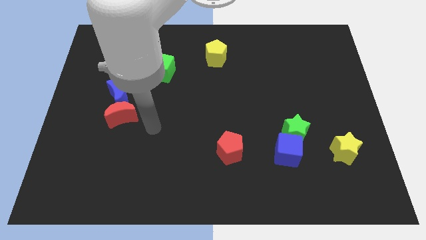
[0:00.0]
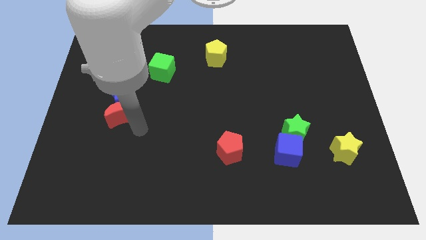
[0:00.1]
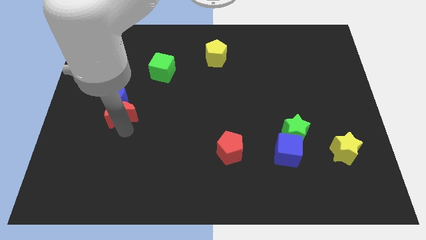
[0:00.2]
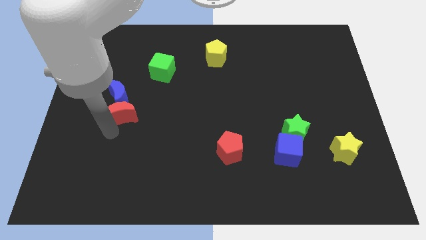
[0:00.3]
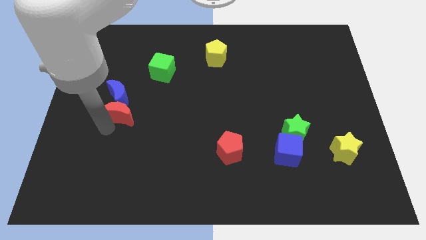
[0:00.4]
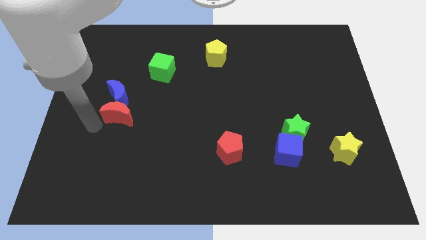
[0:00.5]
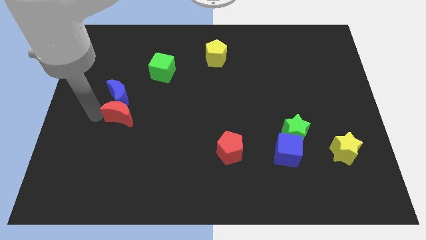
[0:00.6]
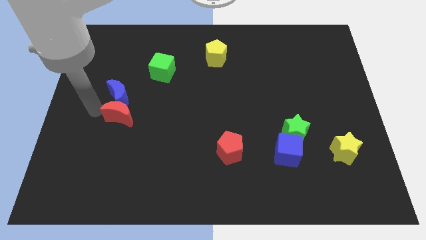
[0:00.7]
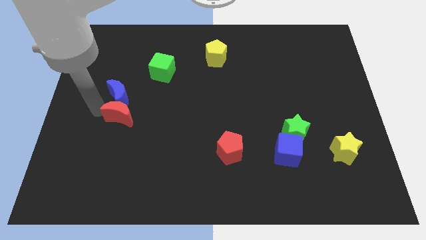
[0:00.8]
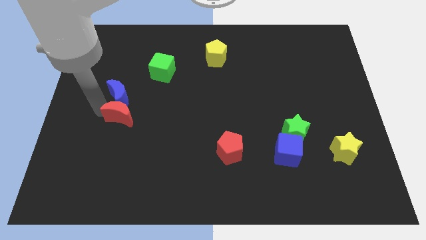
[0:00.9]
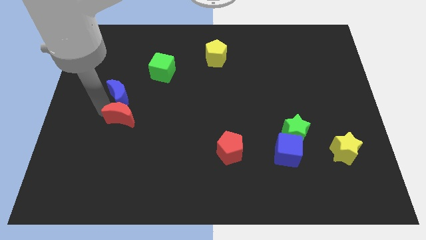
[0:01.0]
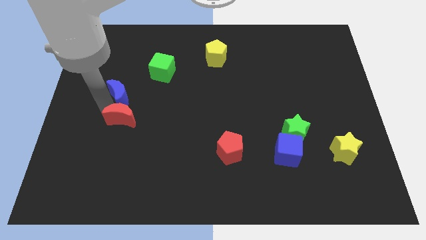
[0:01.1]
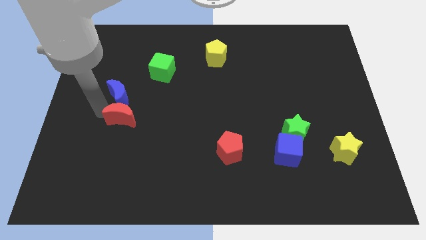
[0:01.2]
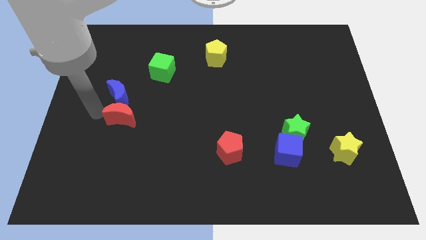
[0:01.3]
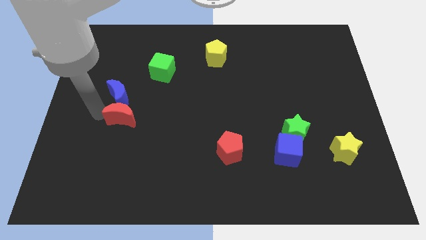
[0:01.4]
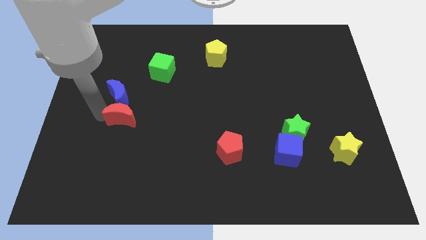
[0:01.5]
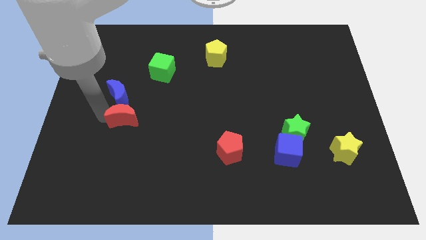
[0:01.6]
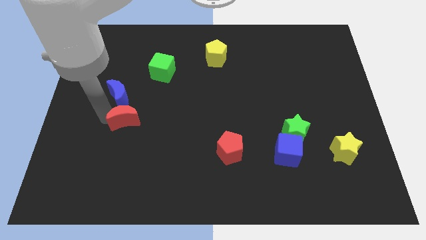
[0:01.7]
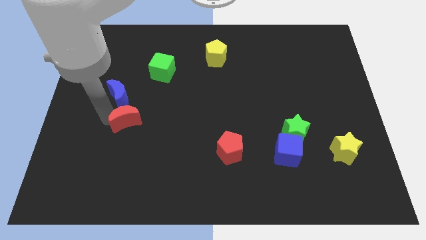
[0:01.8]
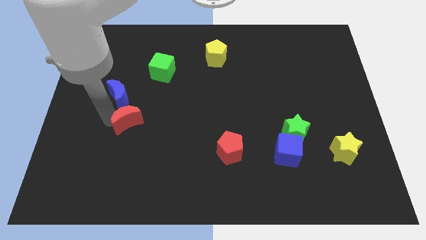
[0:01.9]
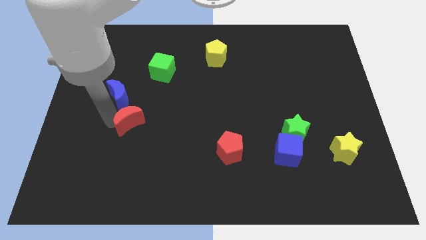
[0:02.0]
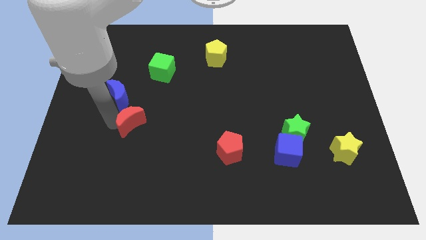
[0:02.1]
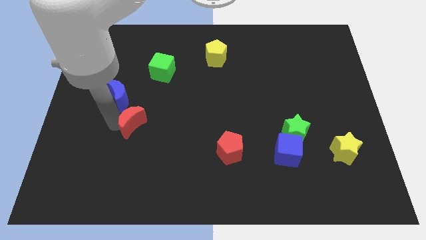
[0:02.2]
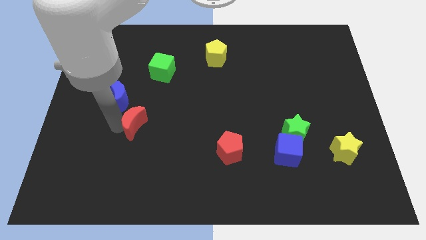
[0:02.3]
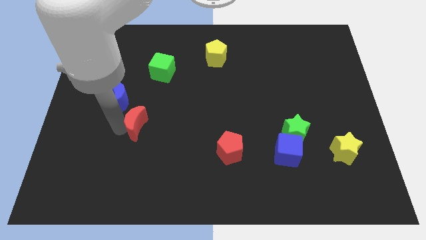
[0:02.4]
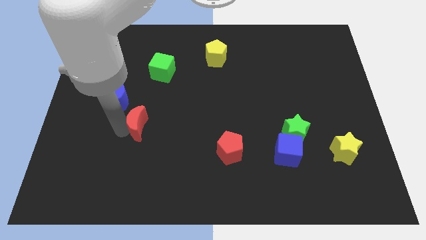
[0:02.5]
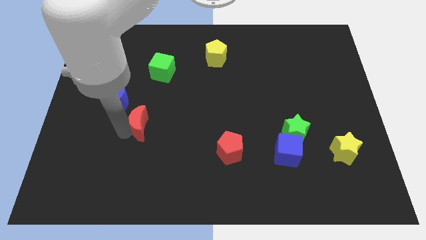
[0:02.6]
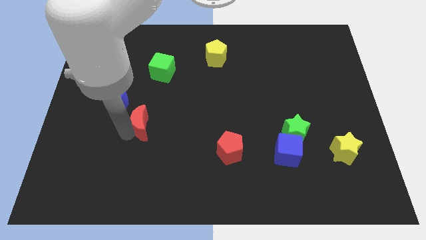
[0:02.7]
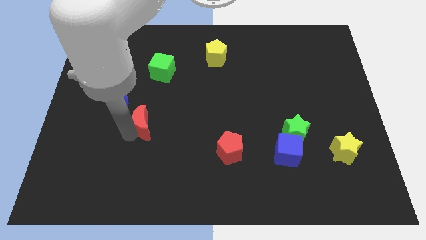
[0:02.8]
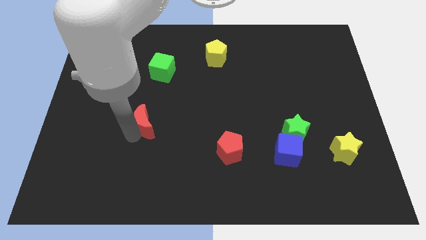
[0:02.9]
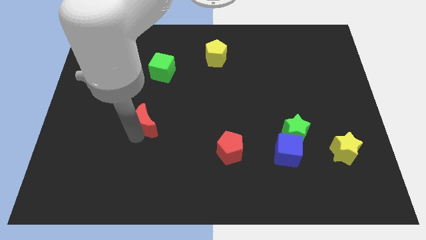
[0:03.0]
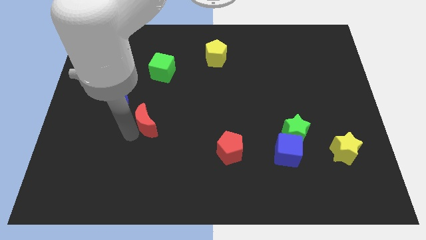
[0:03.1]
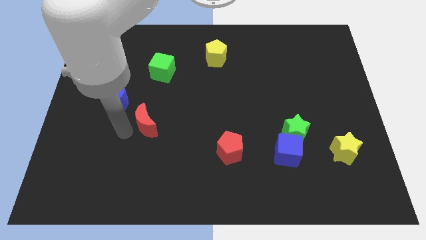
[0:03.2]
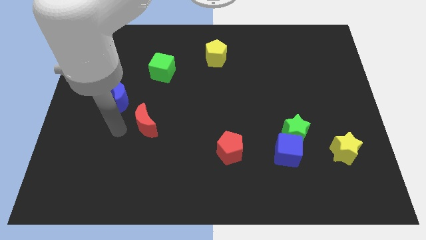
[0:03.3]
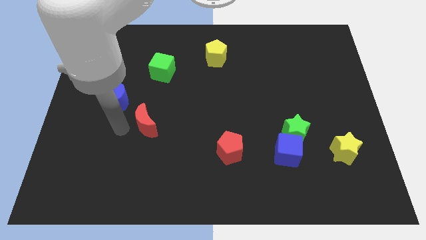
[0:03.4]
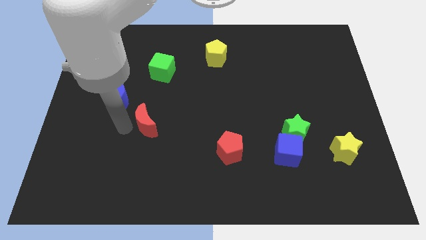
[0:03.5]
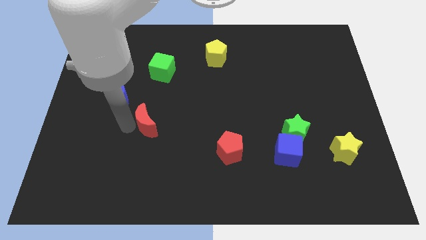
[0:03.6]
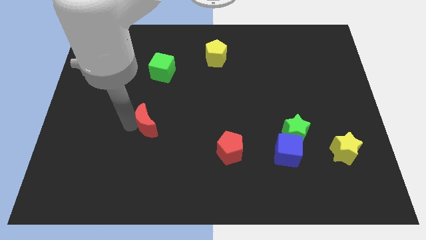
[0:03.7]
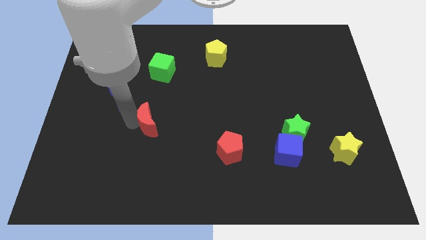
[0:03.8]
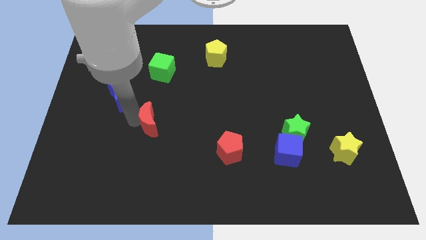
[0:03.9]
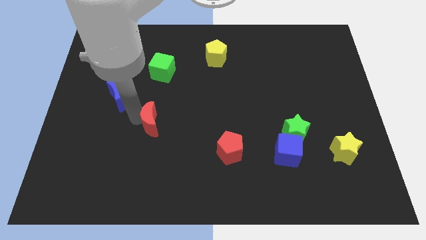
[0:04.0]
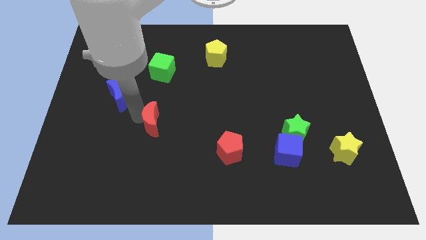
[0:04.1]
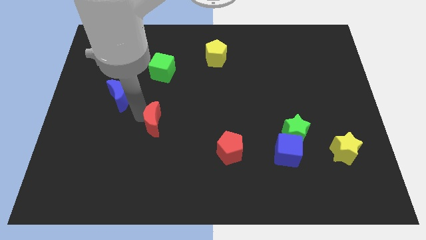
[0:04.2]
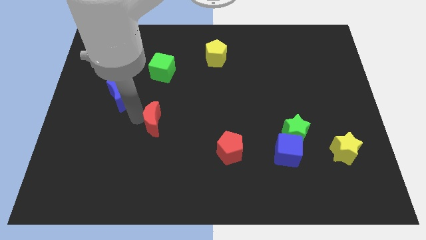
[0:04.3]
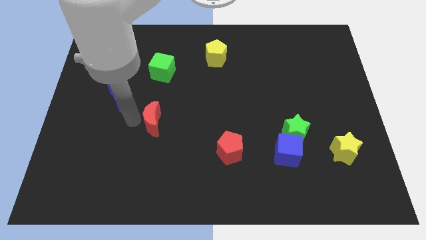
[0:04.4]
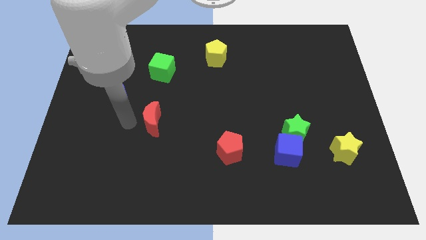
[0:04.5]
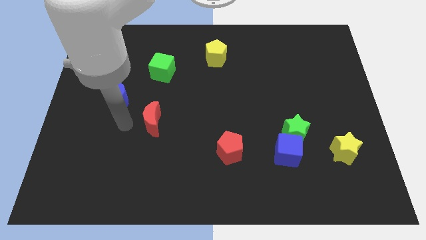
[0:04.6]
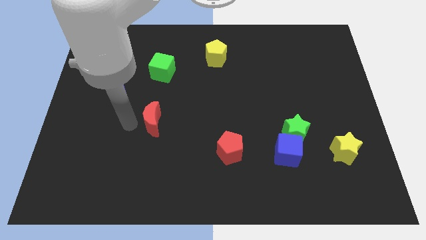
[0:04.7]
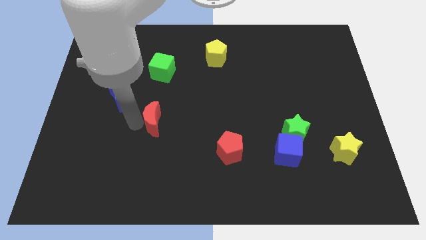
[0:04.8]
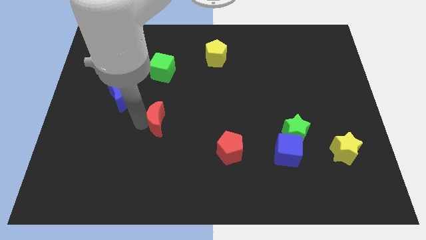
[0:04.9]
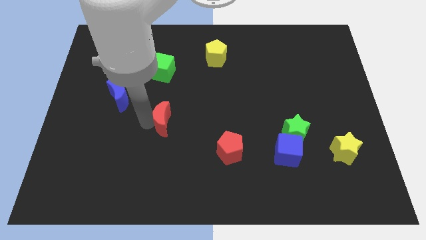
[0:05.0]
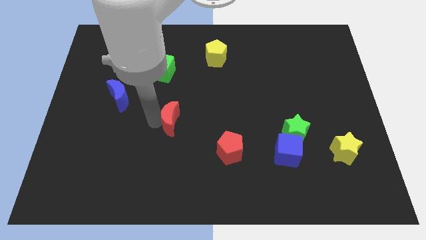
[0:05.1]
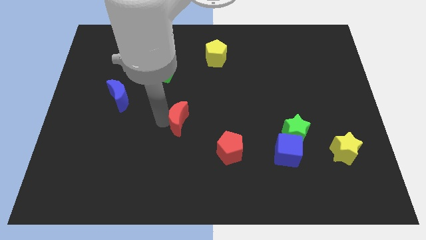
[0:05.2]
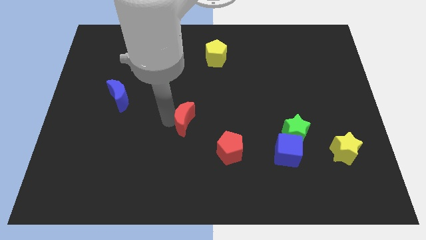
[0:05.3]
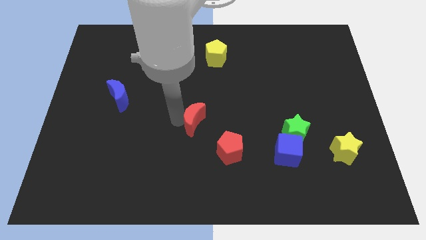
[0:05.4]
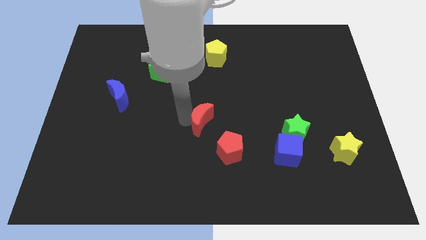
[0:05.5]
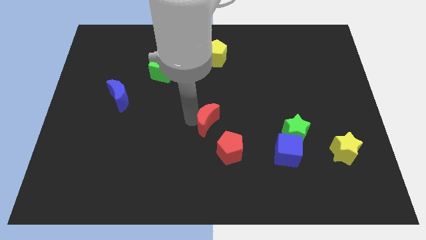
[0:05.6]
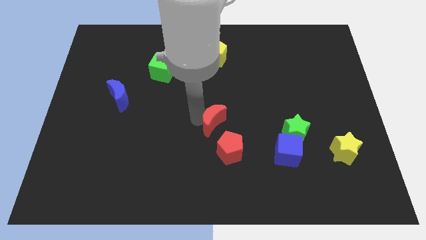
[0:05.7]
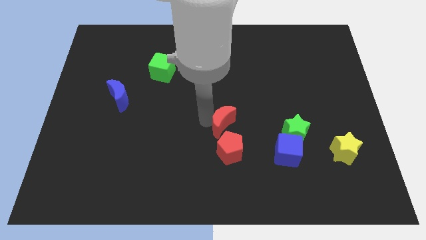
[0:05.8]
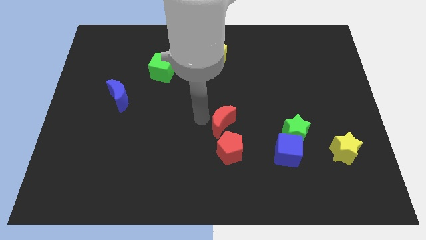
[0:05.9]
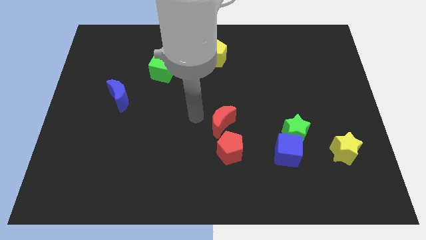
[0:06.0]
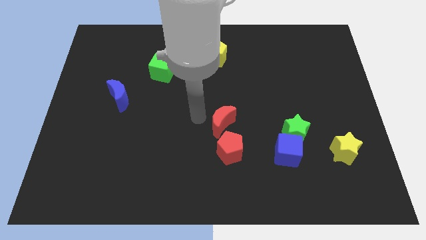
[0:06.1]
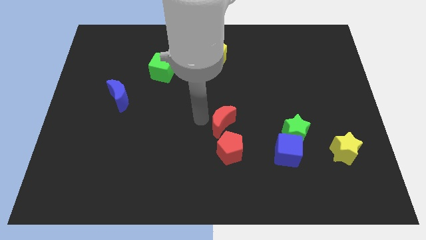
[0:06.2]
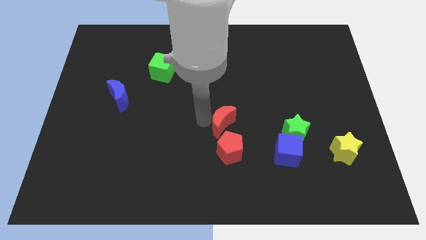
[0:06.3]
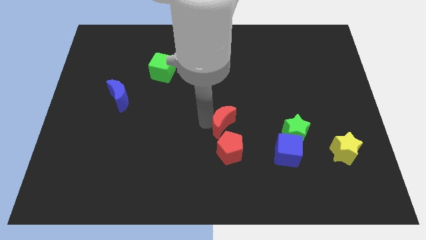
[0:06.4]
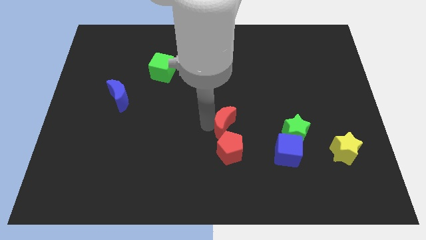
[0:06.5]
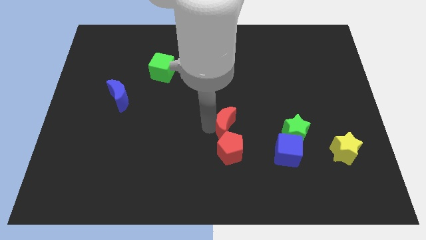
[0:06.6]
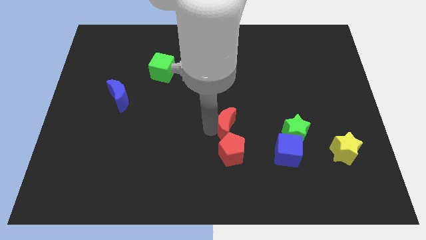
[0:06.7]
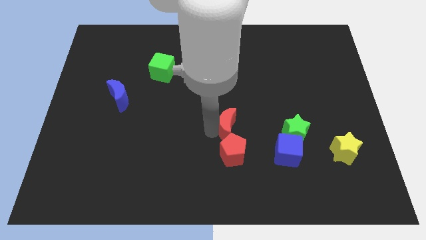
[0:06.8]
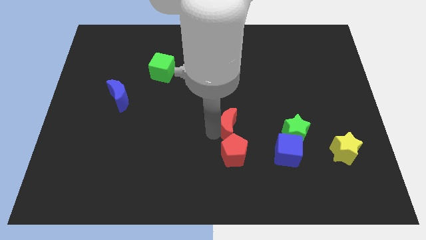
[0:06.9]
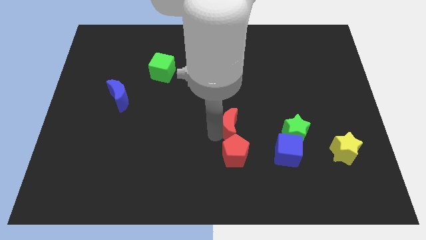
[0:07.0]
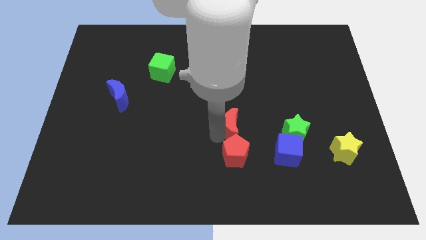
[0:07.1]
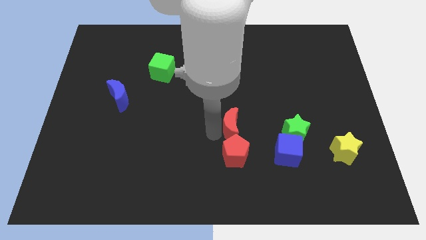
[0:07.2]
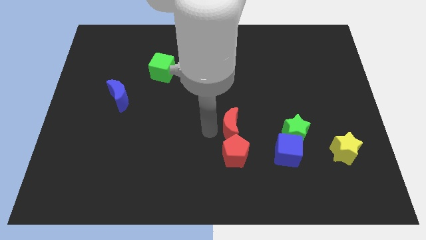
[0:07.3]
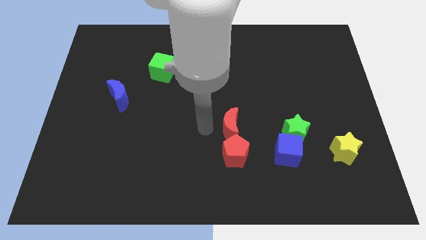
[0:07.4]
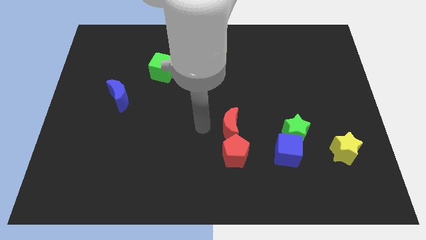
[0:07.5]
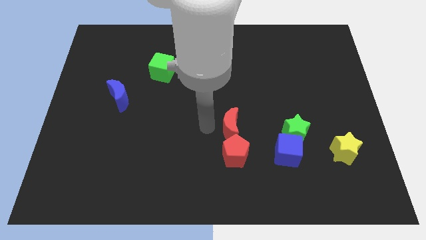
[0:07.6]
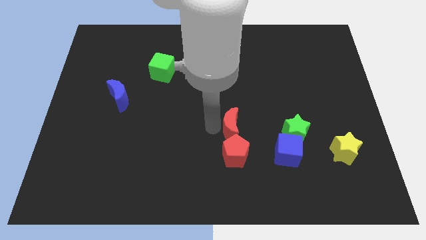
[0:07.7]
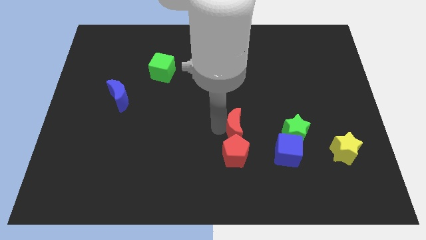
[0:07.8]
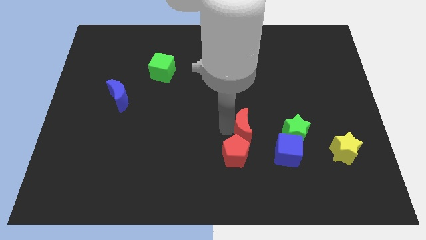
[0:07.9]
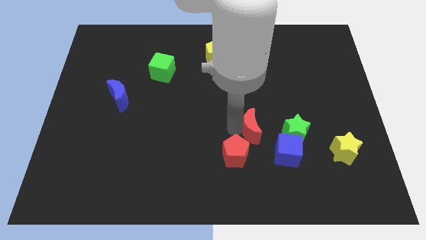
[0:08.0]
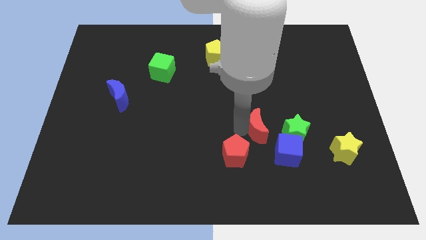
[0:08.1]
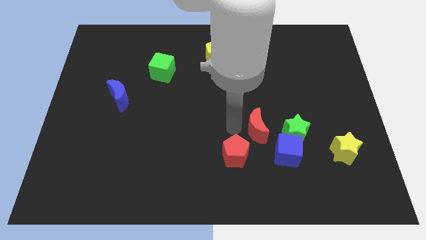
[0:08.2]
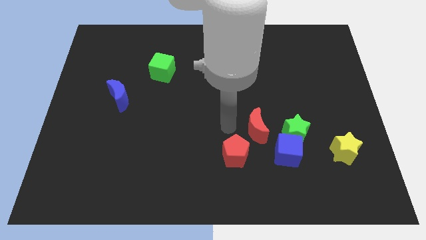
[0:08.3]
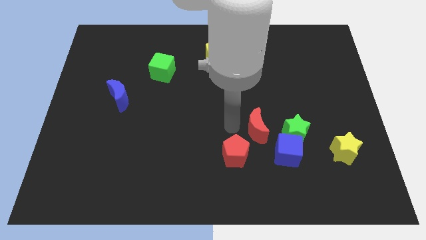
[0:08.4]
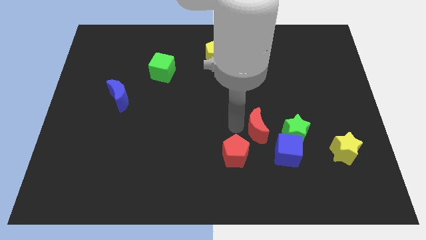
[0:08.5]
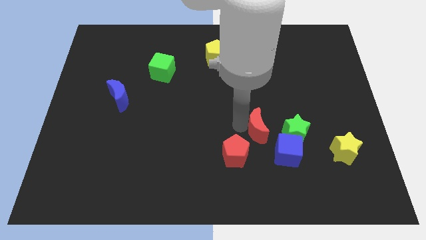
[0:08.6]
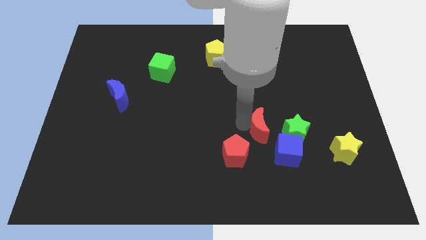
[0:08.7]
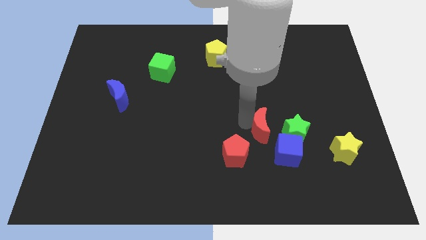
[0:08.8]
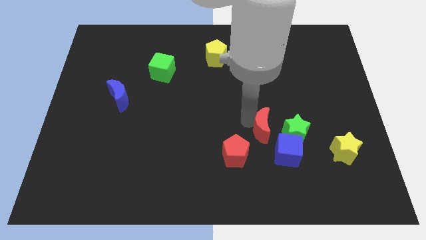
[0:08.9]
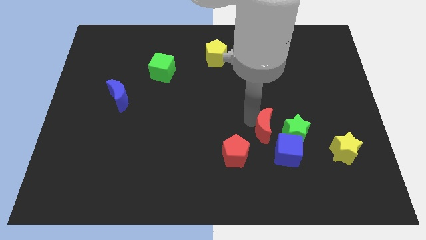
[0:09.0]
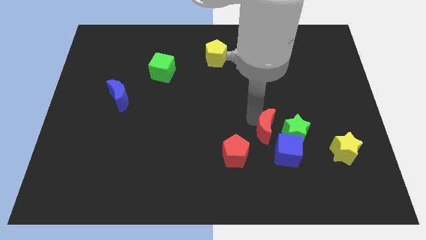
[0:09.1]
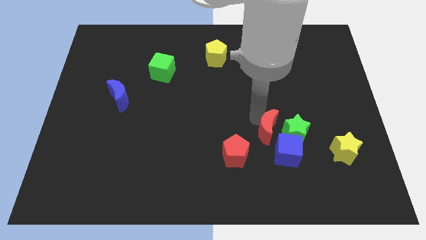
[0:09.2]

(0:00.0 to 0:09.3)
move the red moon to the green star
